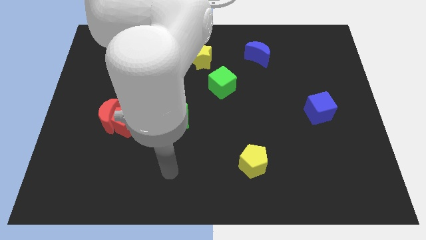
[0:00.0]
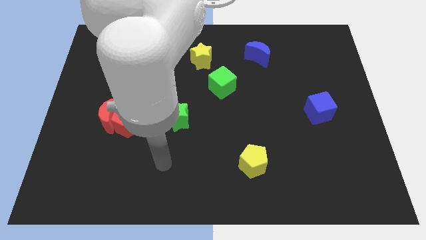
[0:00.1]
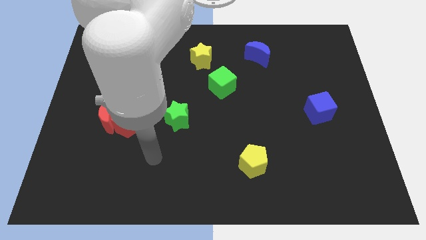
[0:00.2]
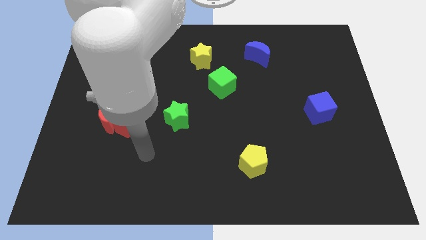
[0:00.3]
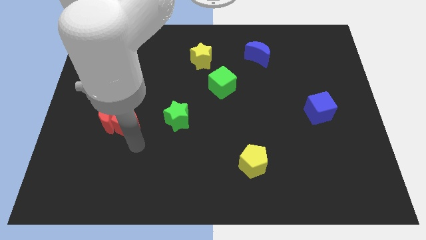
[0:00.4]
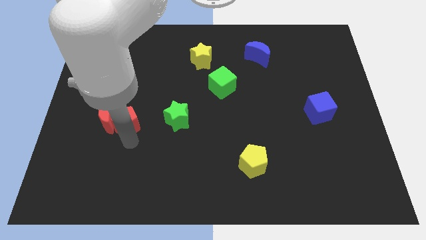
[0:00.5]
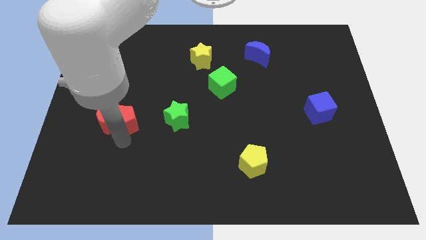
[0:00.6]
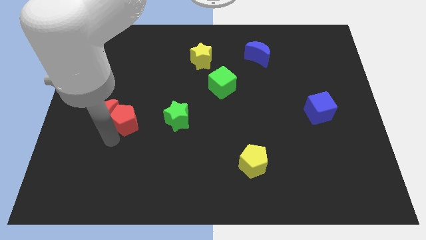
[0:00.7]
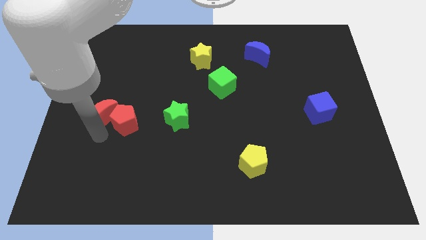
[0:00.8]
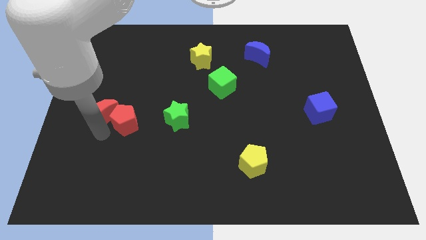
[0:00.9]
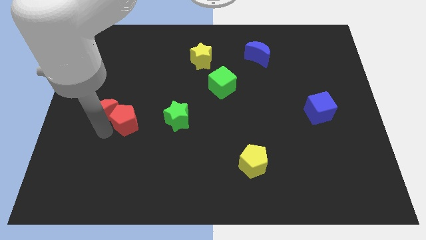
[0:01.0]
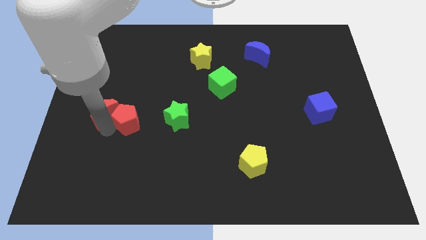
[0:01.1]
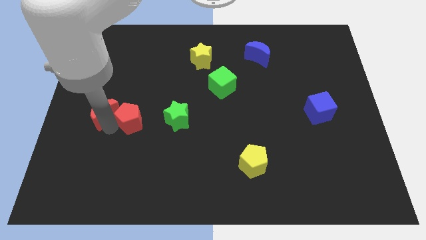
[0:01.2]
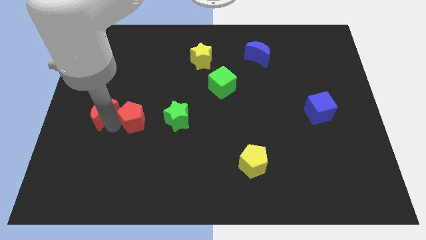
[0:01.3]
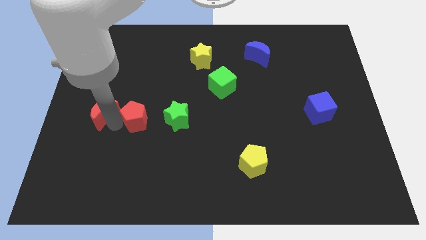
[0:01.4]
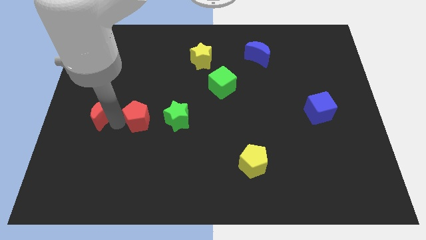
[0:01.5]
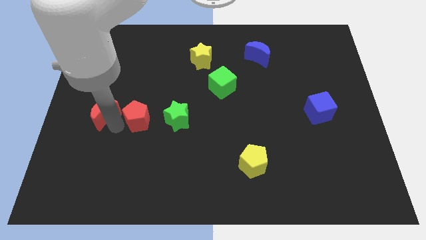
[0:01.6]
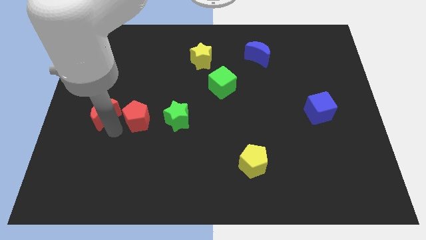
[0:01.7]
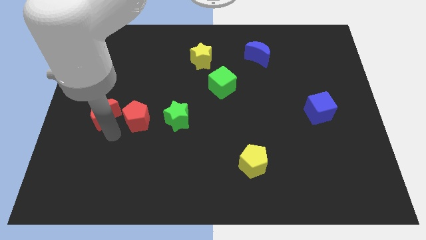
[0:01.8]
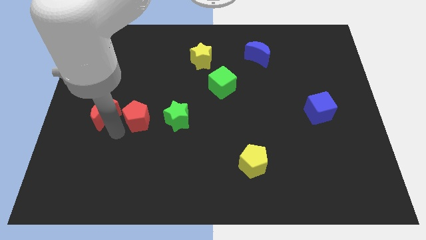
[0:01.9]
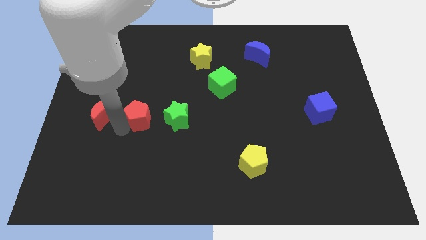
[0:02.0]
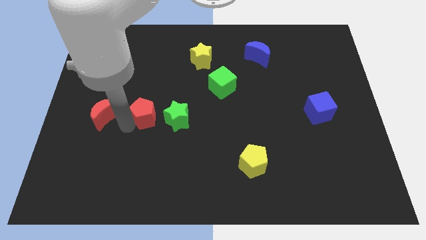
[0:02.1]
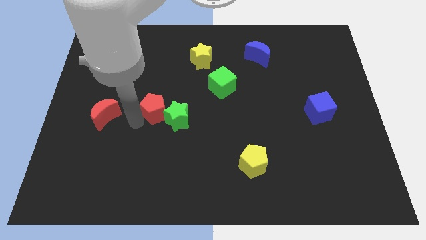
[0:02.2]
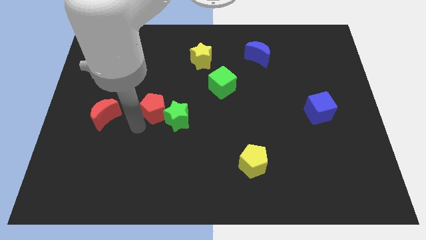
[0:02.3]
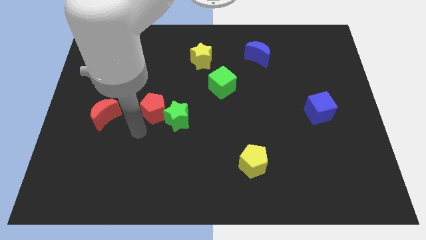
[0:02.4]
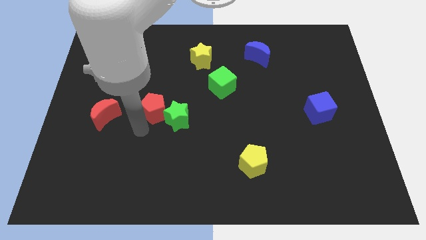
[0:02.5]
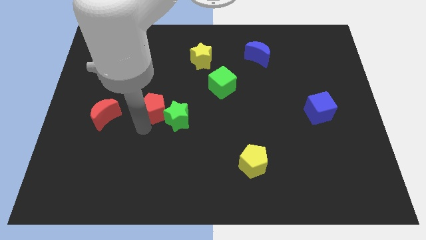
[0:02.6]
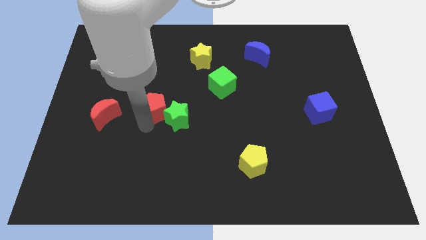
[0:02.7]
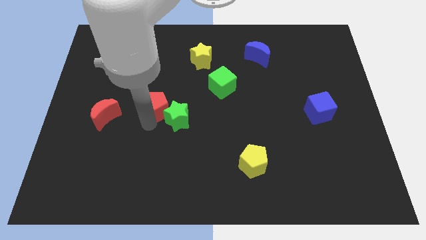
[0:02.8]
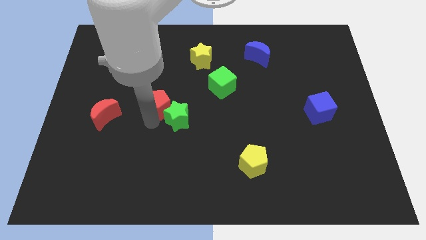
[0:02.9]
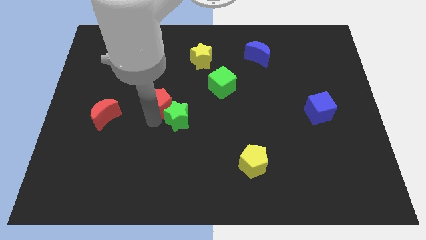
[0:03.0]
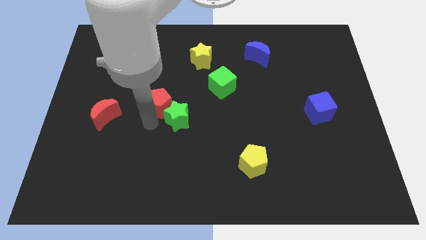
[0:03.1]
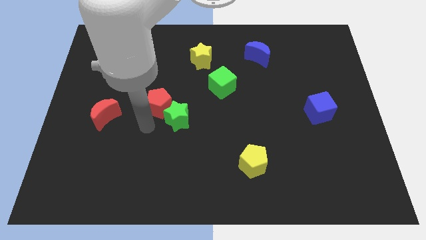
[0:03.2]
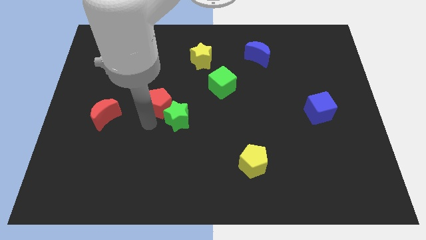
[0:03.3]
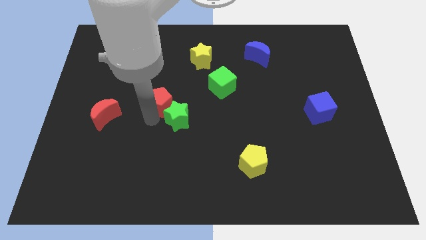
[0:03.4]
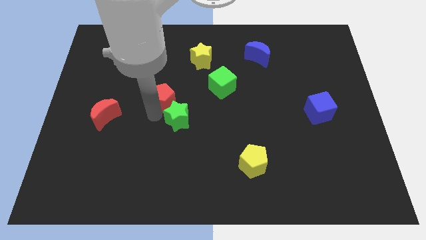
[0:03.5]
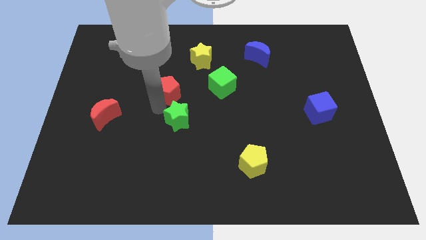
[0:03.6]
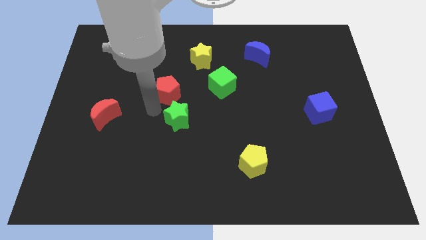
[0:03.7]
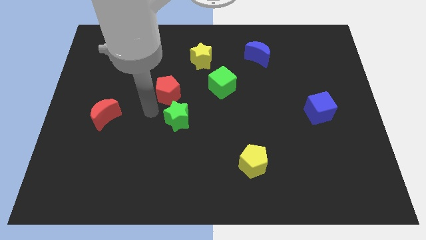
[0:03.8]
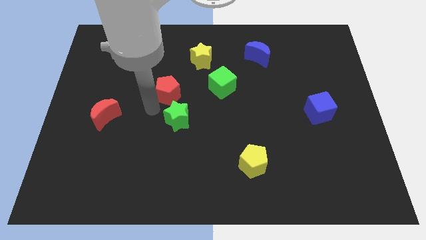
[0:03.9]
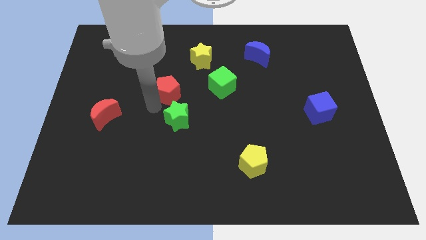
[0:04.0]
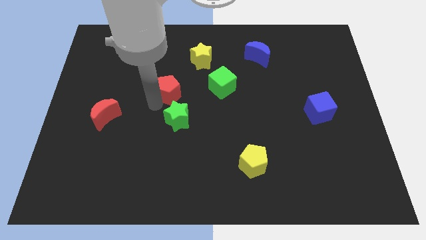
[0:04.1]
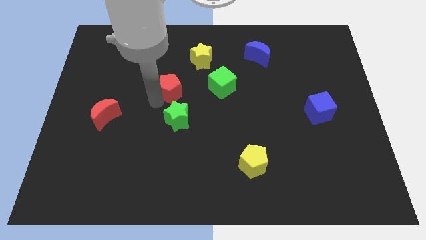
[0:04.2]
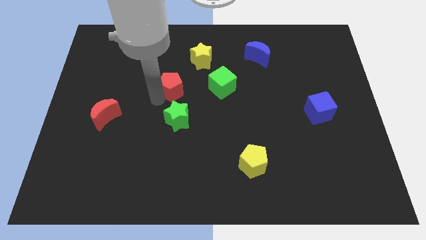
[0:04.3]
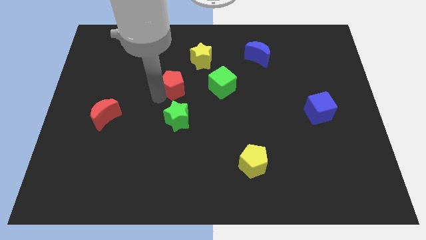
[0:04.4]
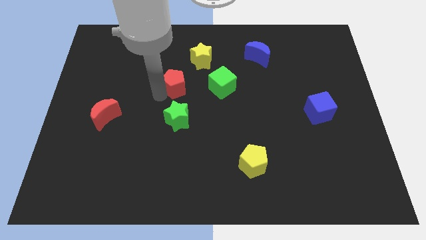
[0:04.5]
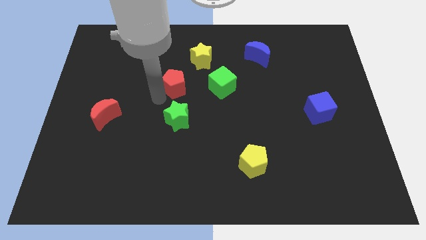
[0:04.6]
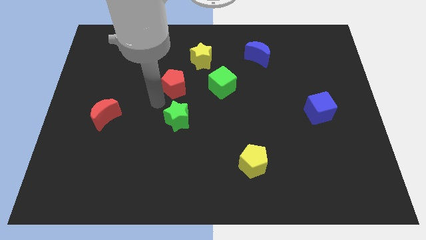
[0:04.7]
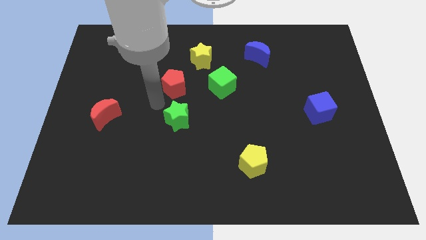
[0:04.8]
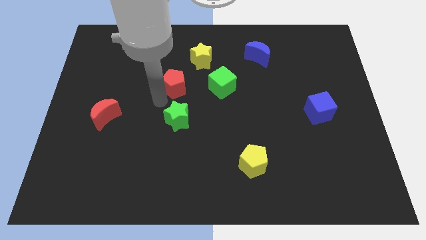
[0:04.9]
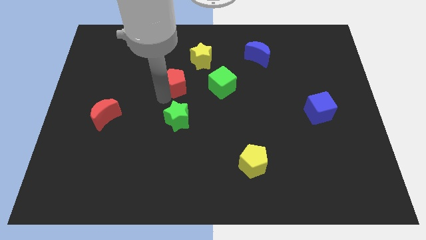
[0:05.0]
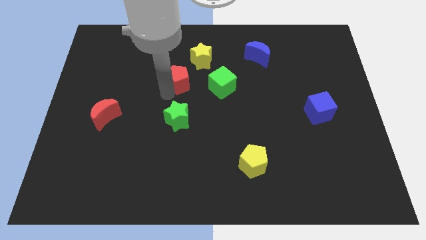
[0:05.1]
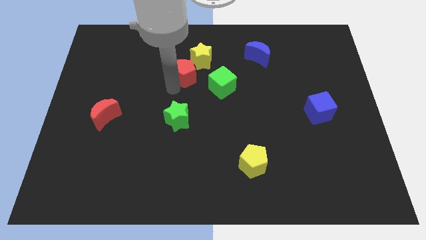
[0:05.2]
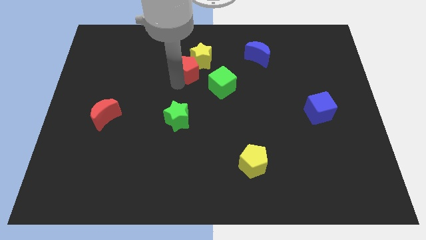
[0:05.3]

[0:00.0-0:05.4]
push the red pentagon to the yellow star

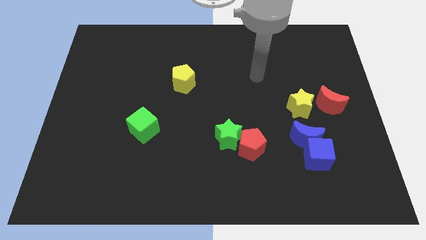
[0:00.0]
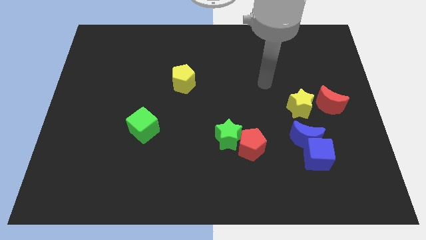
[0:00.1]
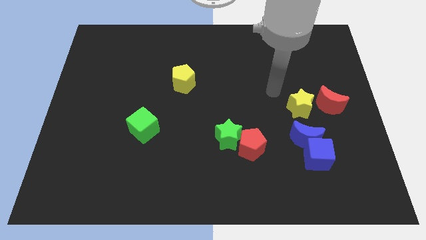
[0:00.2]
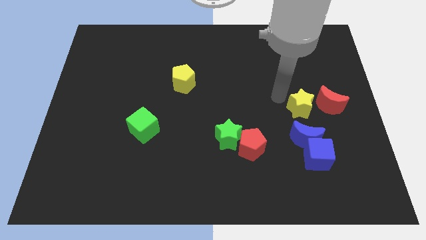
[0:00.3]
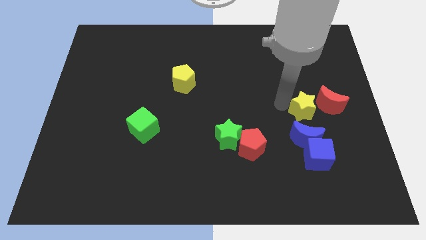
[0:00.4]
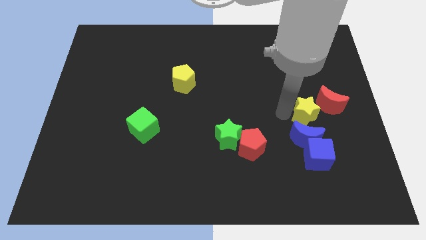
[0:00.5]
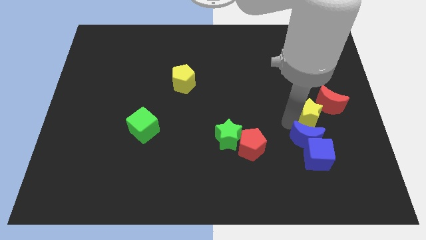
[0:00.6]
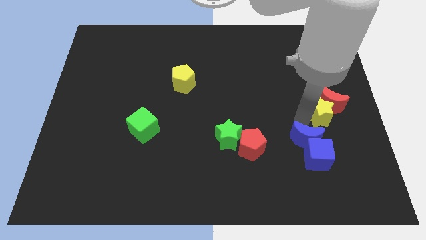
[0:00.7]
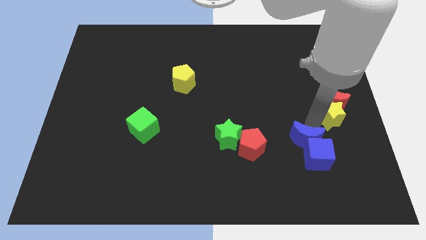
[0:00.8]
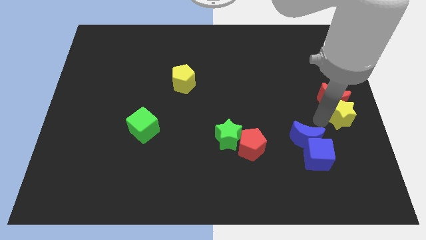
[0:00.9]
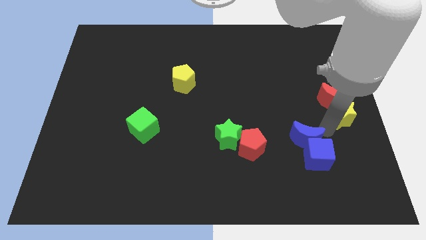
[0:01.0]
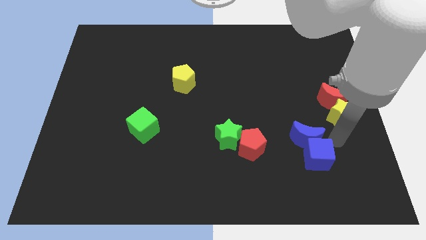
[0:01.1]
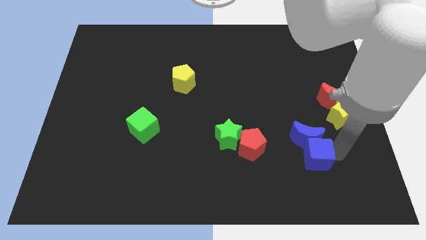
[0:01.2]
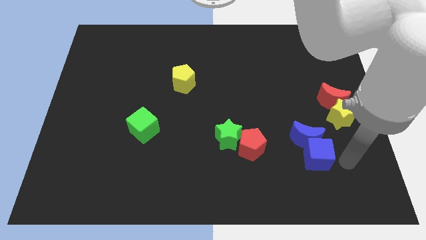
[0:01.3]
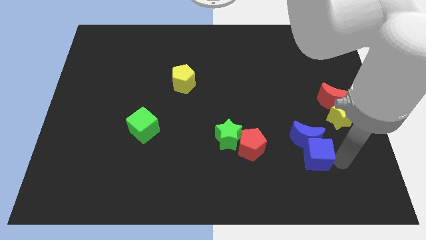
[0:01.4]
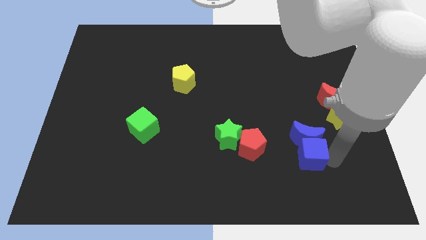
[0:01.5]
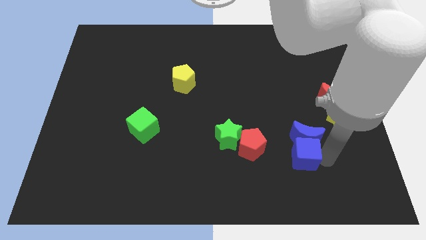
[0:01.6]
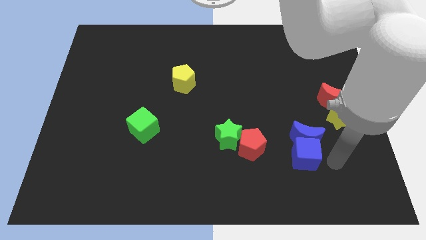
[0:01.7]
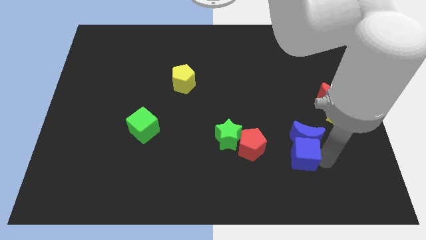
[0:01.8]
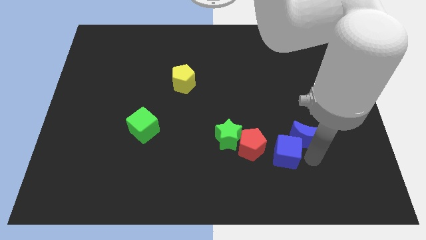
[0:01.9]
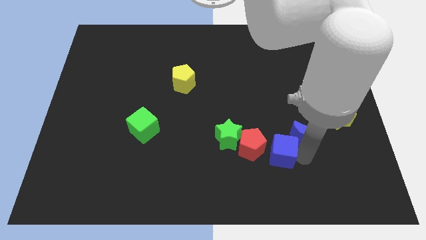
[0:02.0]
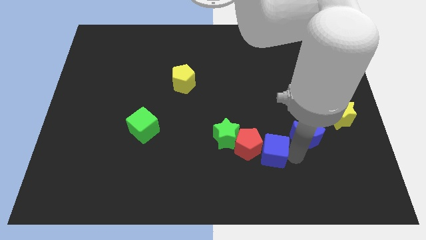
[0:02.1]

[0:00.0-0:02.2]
slide the blue cube close to the red pentagon

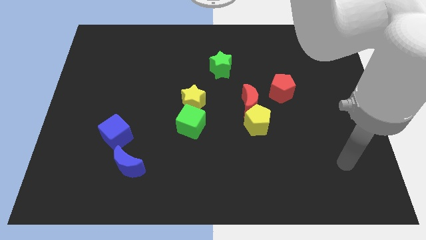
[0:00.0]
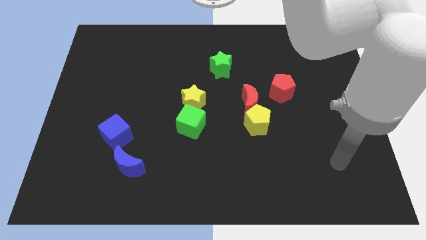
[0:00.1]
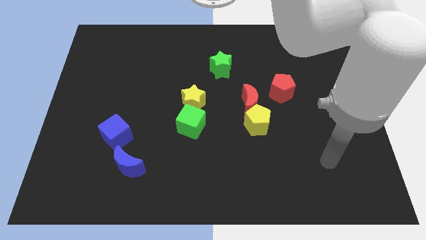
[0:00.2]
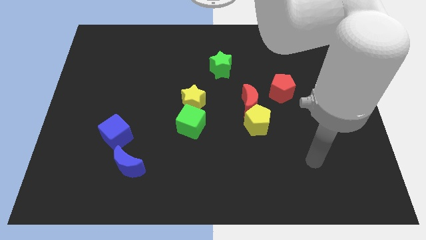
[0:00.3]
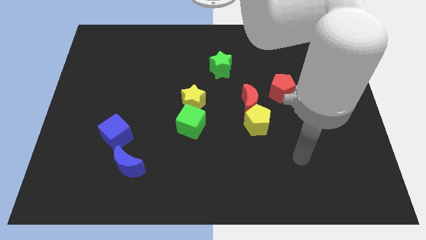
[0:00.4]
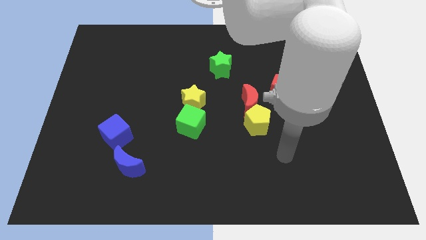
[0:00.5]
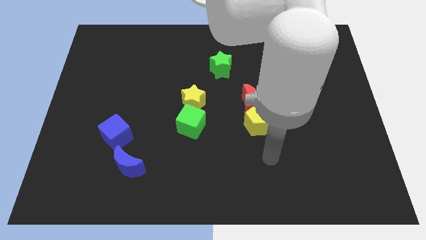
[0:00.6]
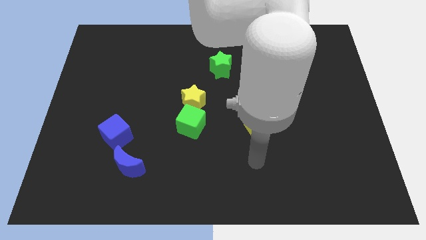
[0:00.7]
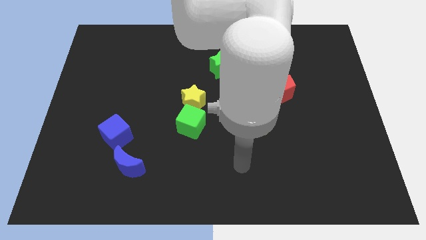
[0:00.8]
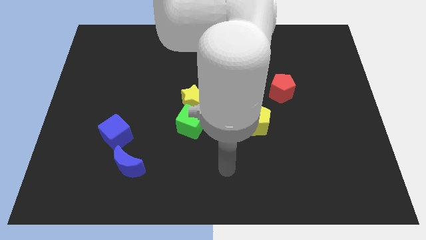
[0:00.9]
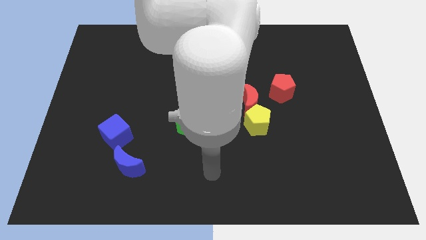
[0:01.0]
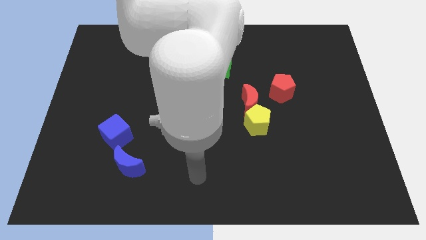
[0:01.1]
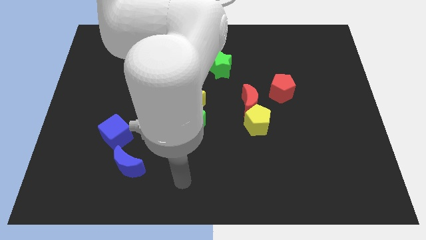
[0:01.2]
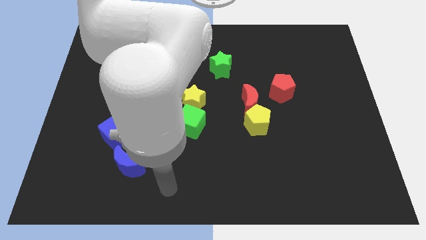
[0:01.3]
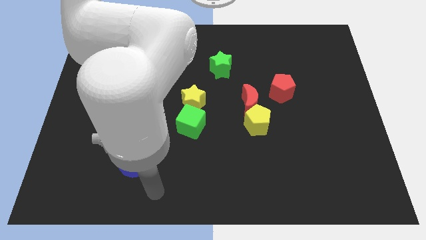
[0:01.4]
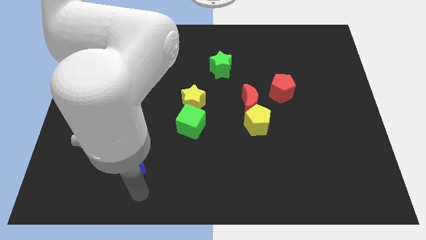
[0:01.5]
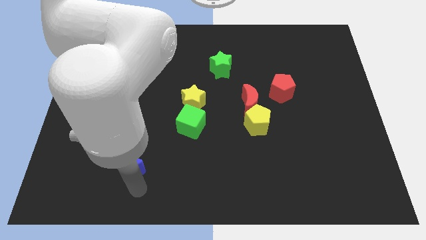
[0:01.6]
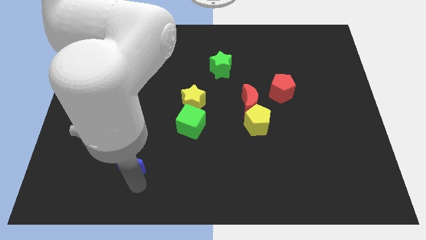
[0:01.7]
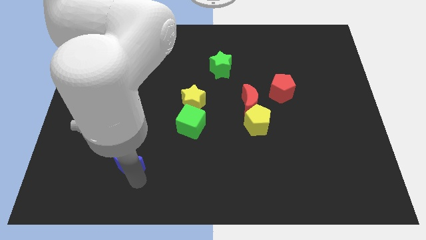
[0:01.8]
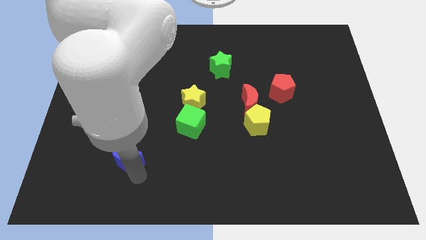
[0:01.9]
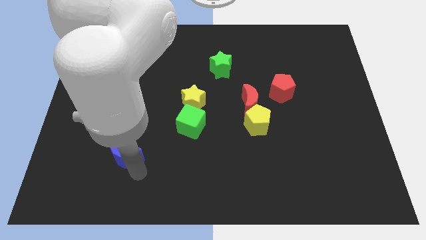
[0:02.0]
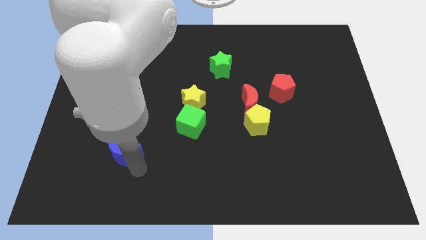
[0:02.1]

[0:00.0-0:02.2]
push the blue moon towards the blue cube
